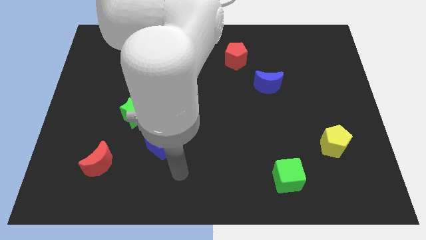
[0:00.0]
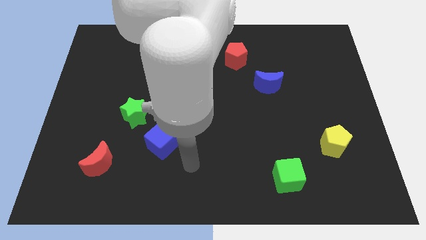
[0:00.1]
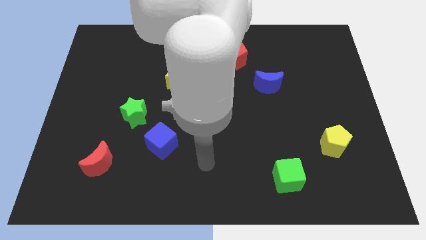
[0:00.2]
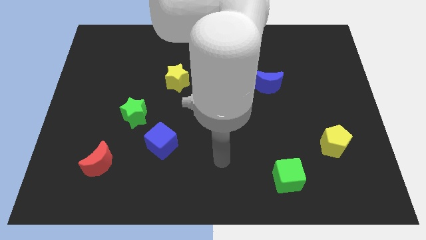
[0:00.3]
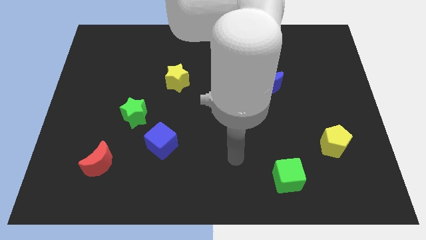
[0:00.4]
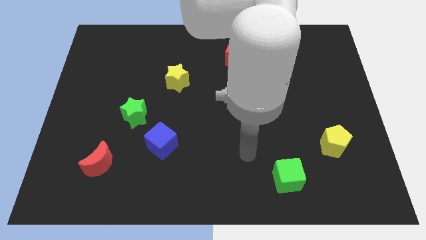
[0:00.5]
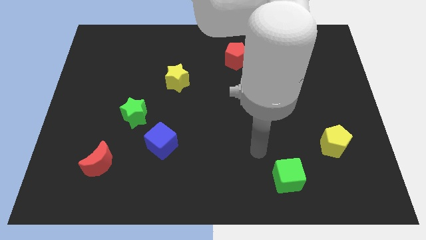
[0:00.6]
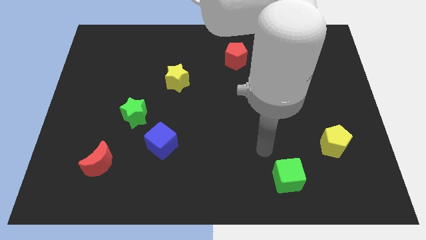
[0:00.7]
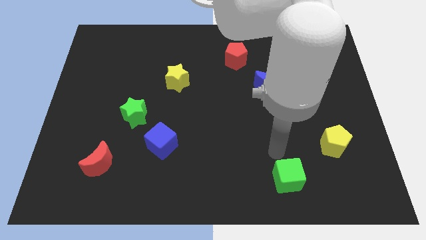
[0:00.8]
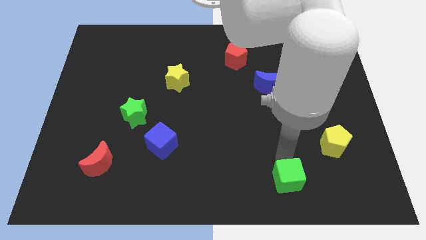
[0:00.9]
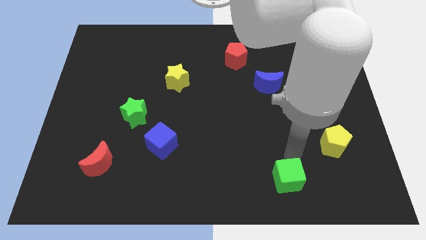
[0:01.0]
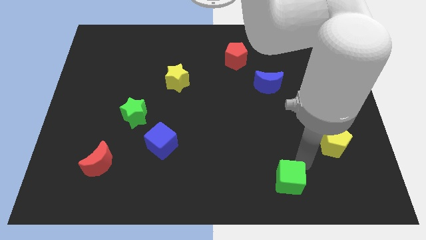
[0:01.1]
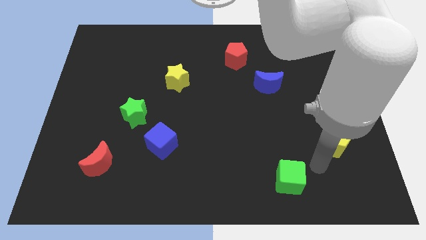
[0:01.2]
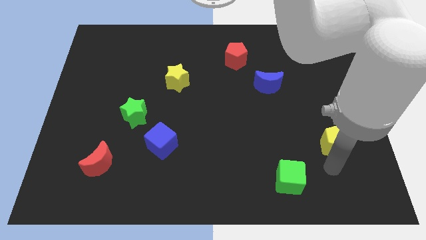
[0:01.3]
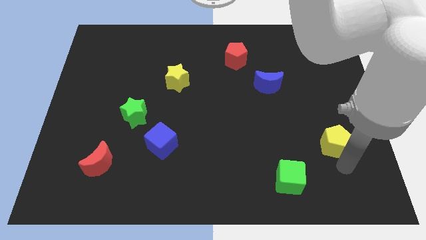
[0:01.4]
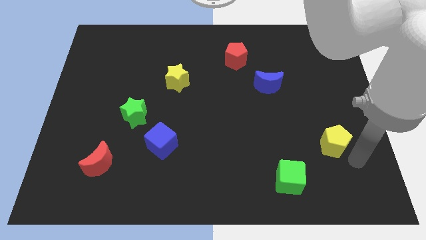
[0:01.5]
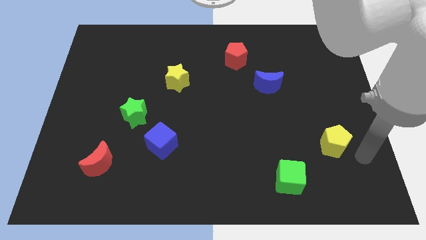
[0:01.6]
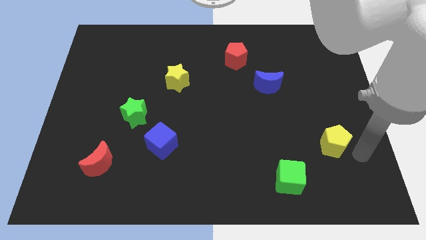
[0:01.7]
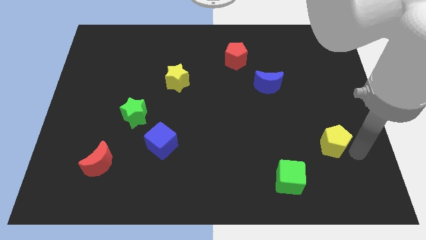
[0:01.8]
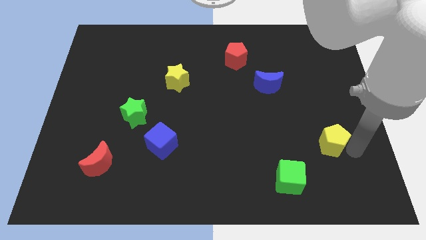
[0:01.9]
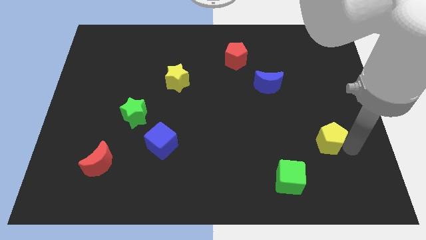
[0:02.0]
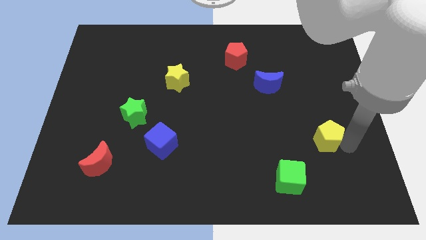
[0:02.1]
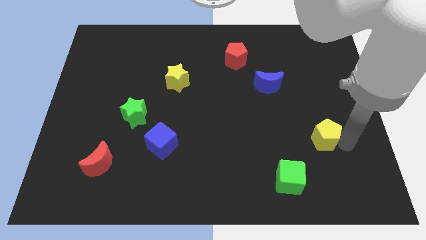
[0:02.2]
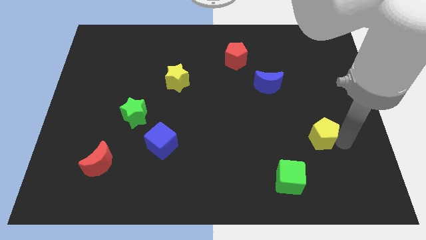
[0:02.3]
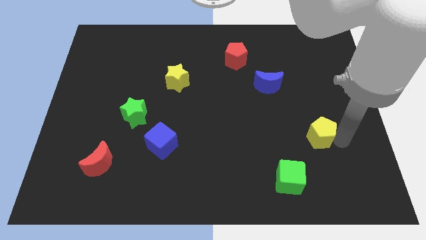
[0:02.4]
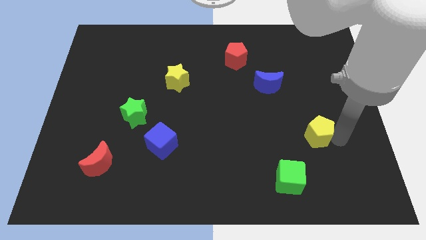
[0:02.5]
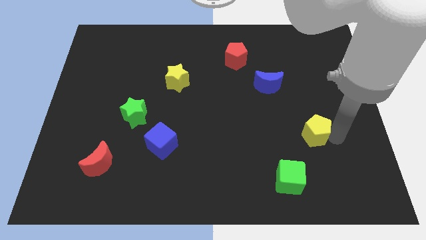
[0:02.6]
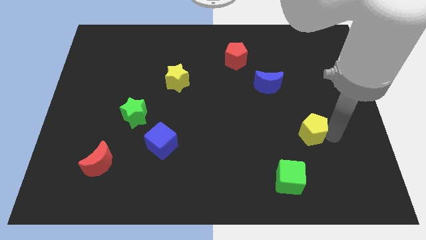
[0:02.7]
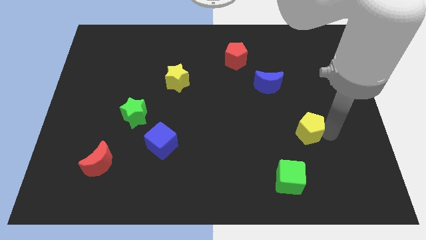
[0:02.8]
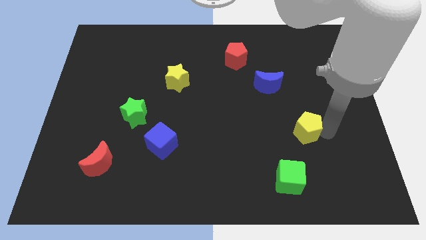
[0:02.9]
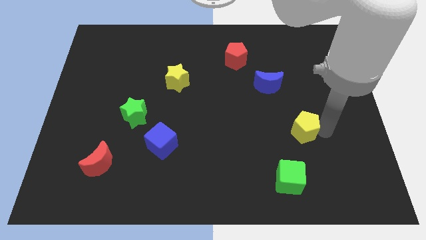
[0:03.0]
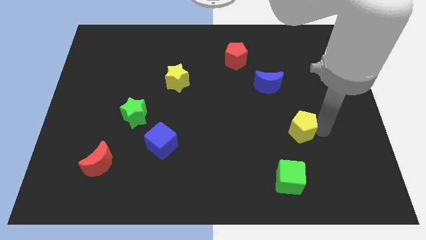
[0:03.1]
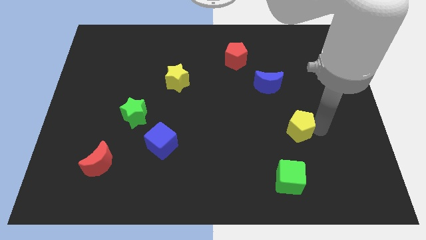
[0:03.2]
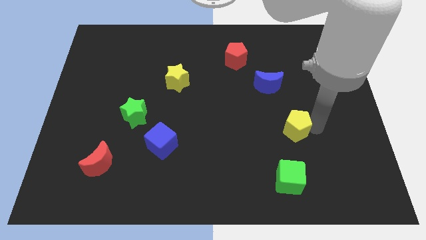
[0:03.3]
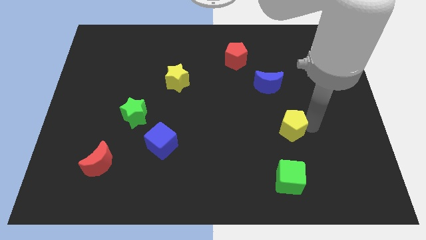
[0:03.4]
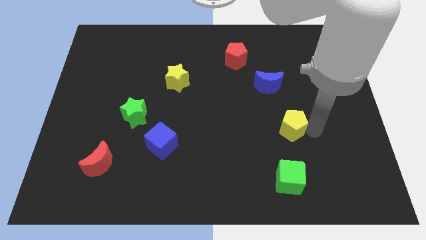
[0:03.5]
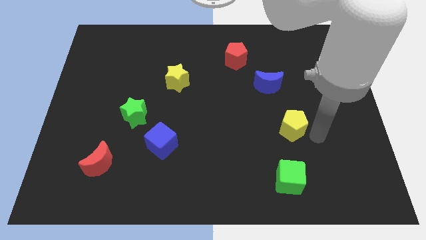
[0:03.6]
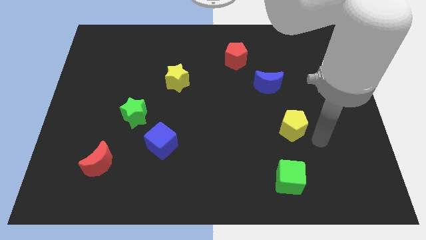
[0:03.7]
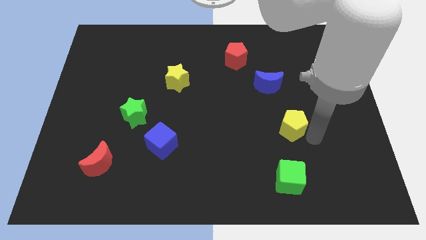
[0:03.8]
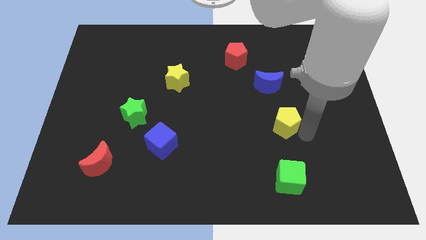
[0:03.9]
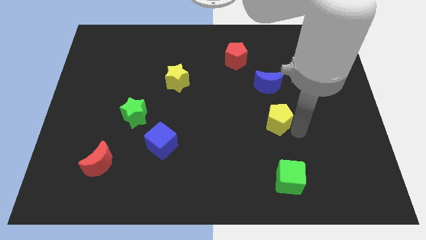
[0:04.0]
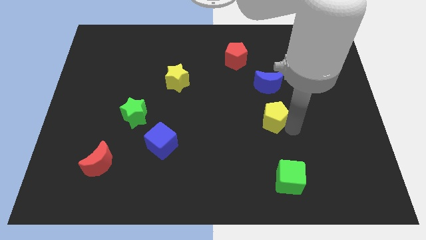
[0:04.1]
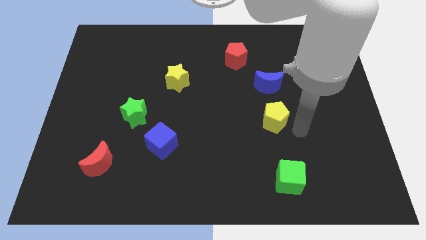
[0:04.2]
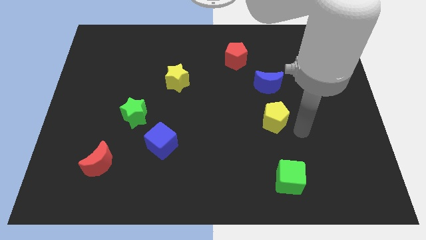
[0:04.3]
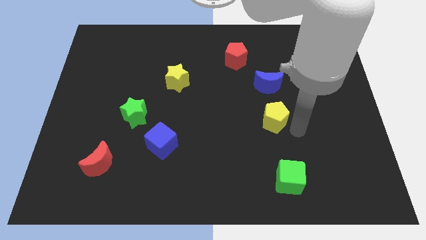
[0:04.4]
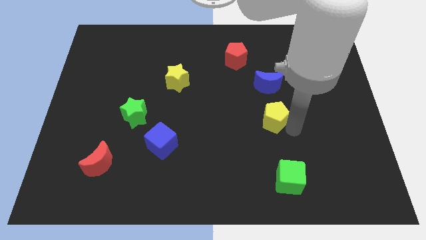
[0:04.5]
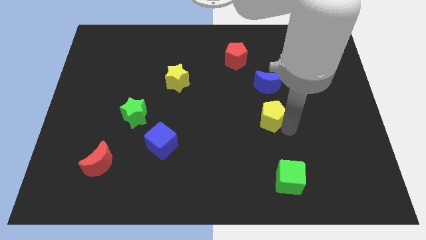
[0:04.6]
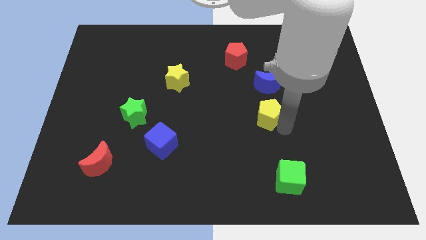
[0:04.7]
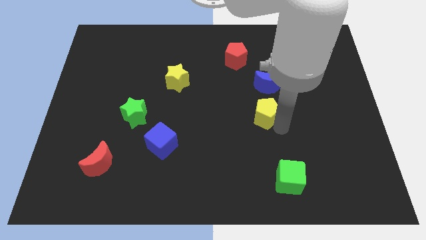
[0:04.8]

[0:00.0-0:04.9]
put the yellow pentagon to the middle

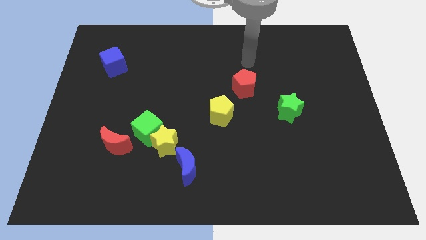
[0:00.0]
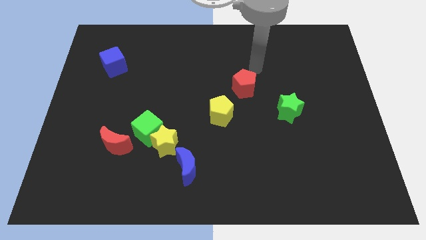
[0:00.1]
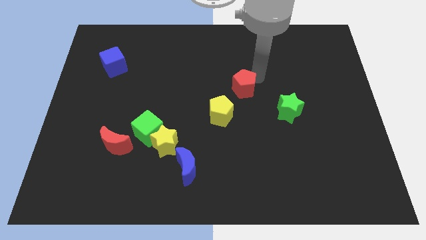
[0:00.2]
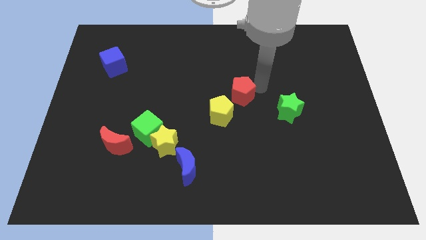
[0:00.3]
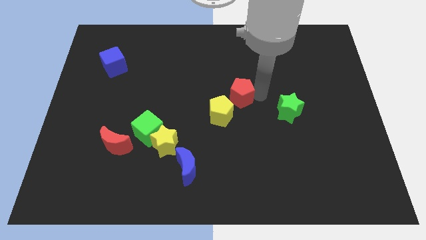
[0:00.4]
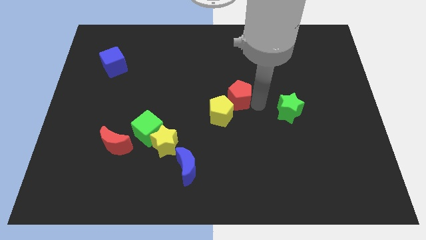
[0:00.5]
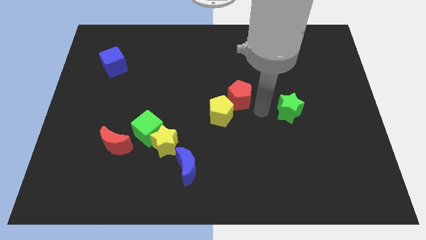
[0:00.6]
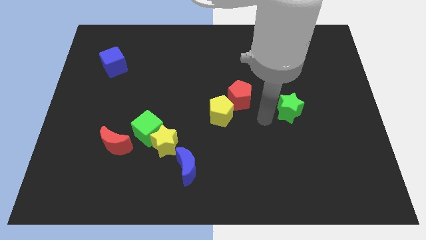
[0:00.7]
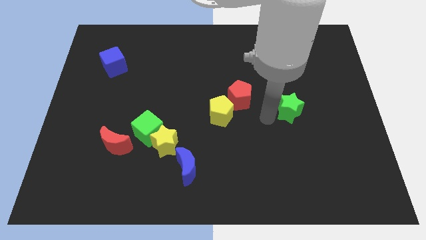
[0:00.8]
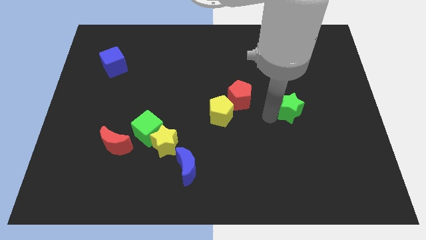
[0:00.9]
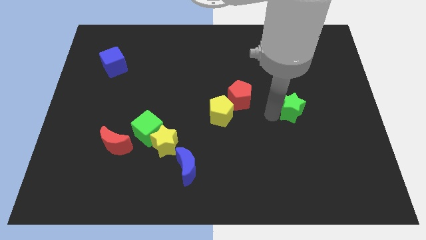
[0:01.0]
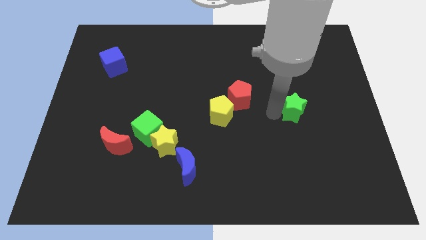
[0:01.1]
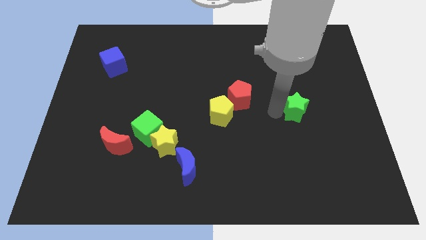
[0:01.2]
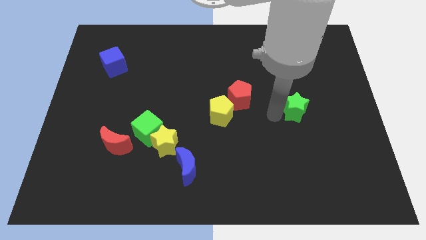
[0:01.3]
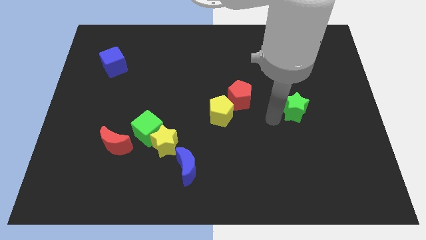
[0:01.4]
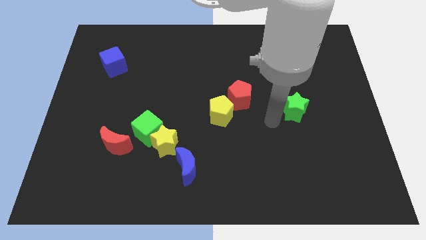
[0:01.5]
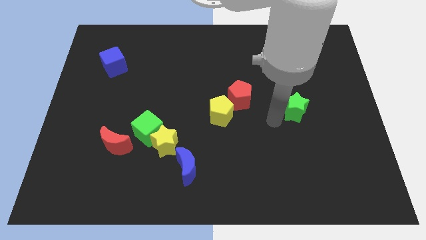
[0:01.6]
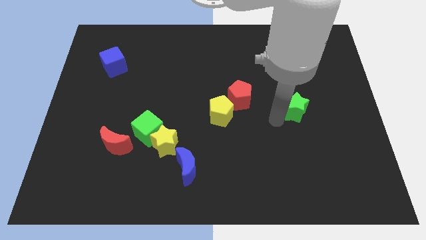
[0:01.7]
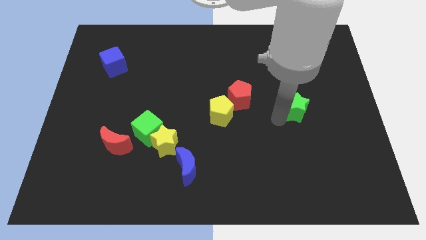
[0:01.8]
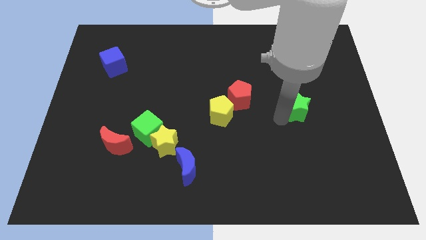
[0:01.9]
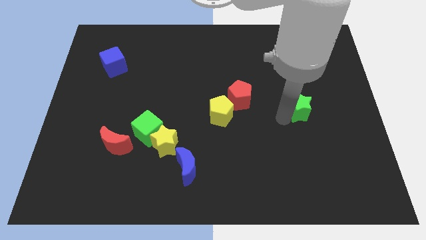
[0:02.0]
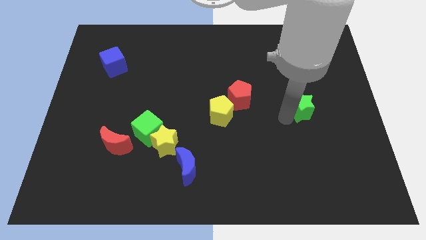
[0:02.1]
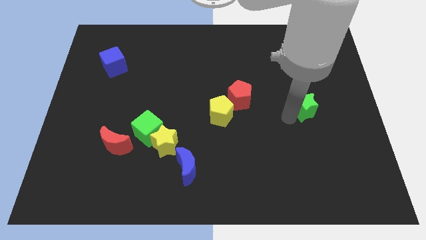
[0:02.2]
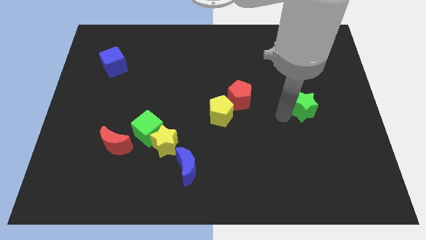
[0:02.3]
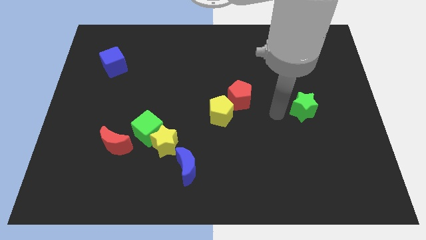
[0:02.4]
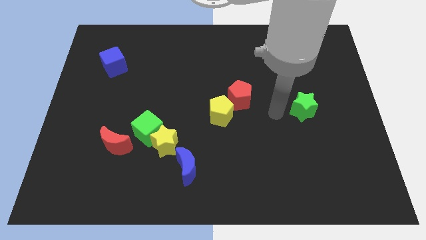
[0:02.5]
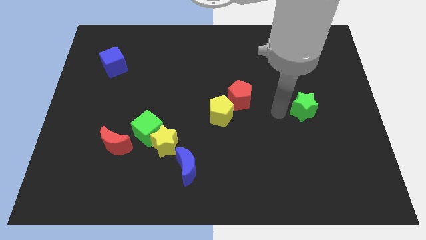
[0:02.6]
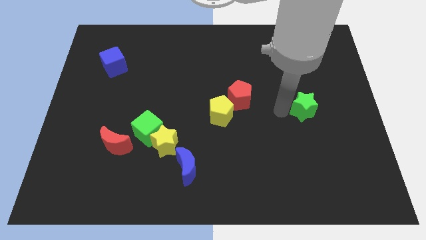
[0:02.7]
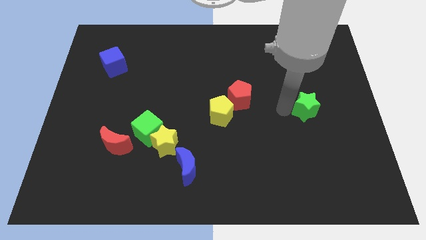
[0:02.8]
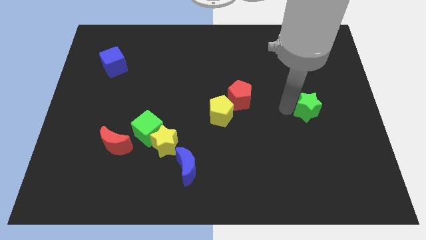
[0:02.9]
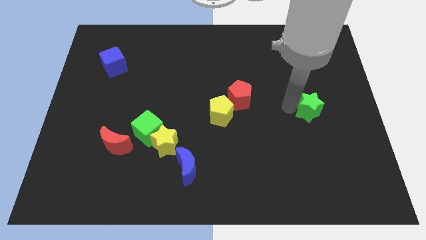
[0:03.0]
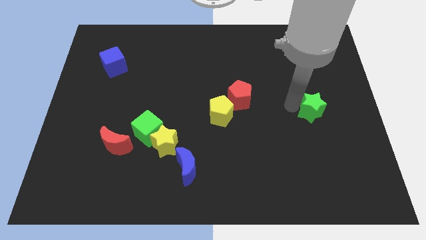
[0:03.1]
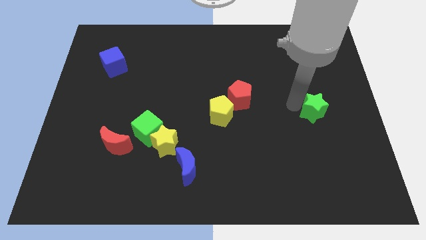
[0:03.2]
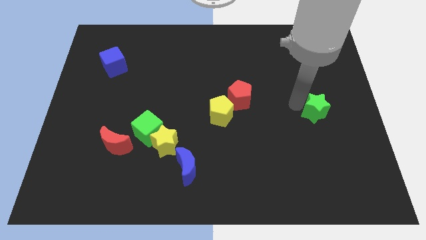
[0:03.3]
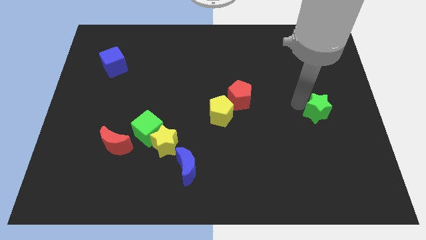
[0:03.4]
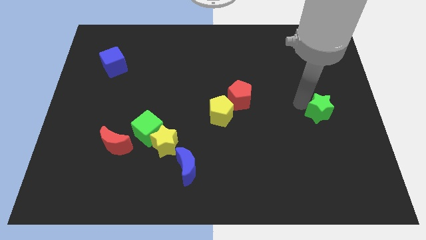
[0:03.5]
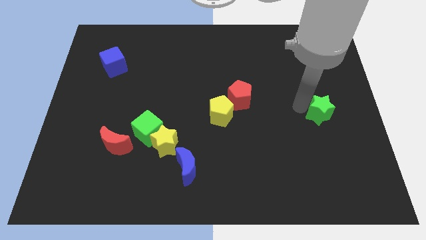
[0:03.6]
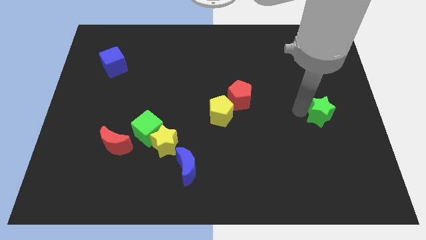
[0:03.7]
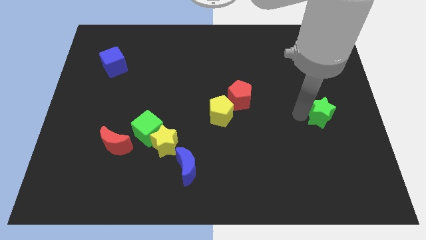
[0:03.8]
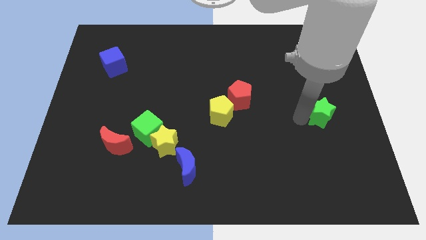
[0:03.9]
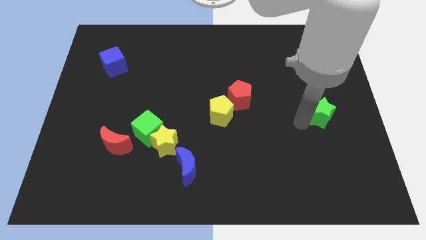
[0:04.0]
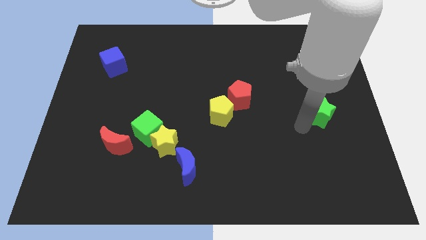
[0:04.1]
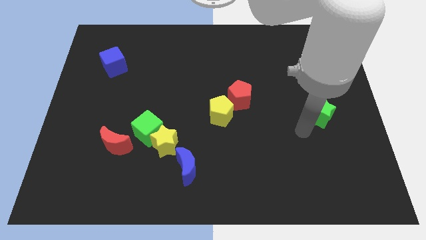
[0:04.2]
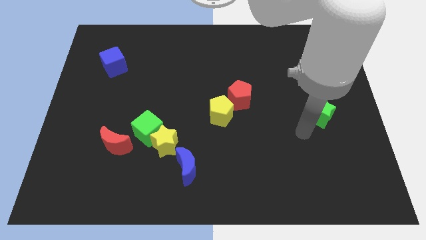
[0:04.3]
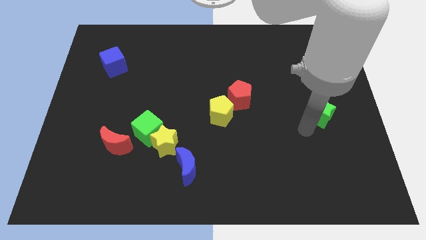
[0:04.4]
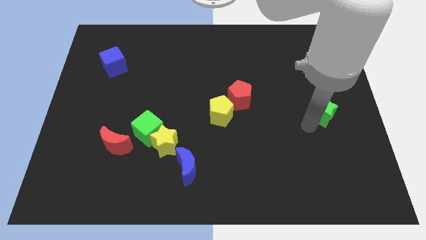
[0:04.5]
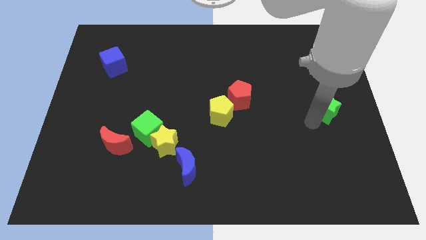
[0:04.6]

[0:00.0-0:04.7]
move the green star to the right side of the board
